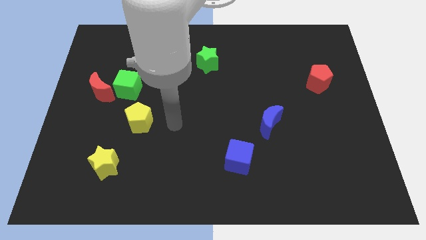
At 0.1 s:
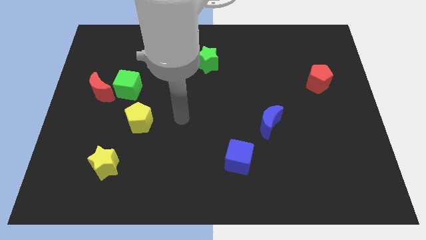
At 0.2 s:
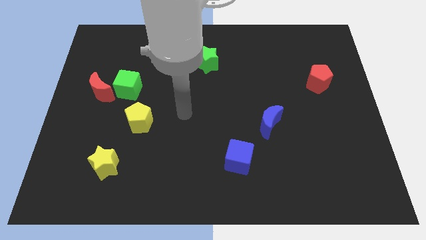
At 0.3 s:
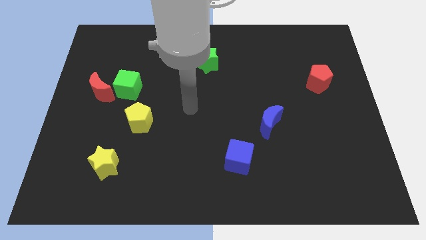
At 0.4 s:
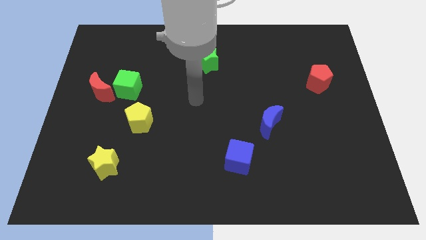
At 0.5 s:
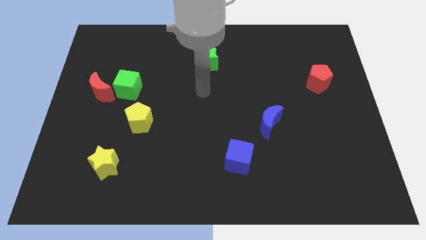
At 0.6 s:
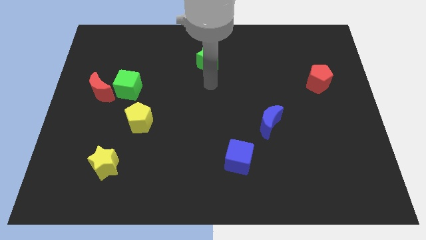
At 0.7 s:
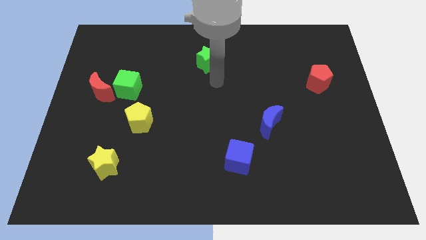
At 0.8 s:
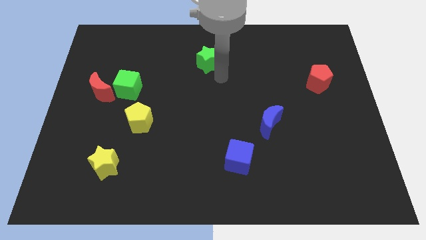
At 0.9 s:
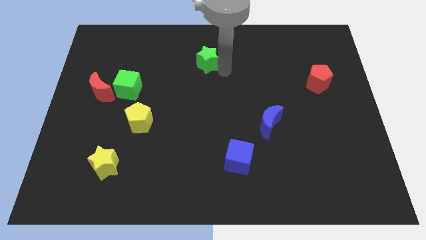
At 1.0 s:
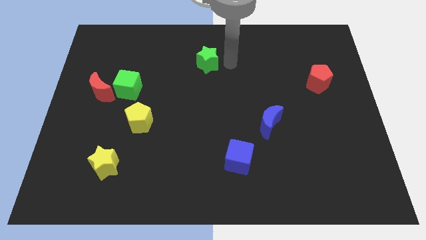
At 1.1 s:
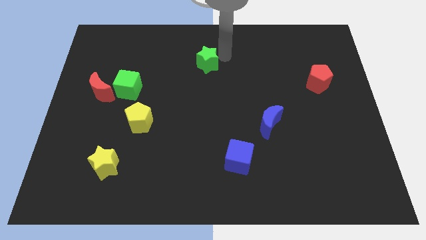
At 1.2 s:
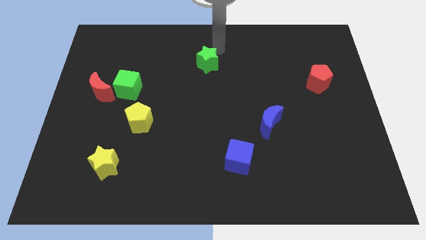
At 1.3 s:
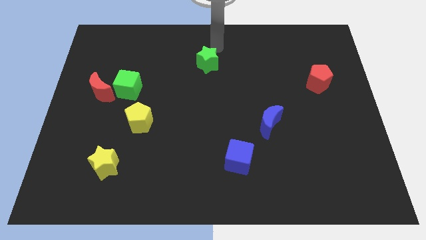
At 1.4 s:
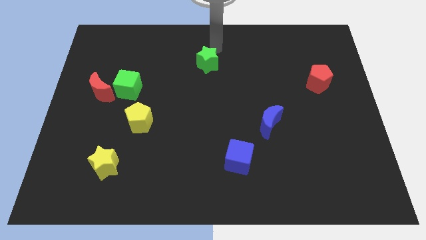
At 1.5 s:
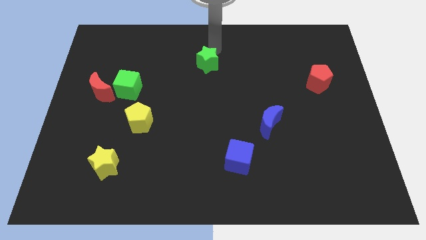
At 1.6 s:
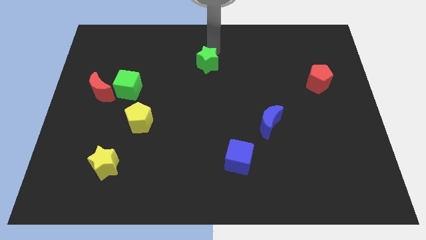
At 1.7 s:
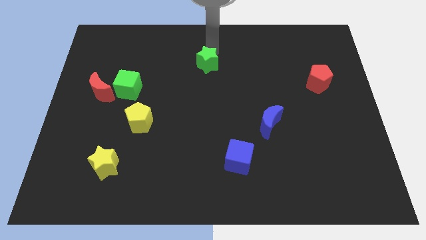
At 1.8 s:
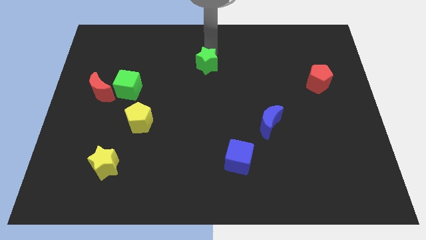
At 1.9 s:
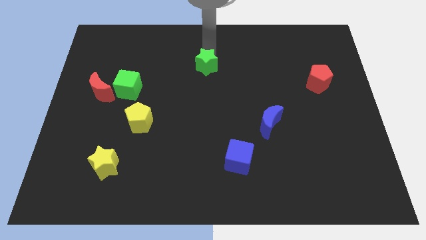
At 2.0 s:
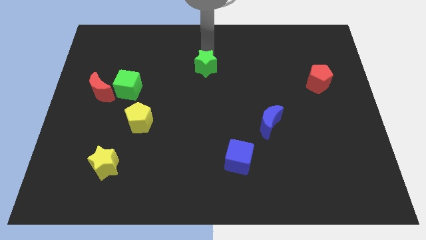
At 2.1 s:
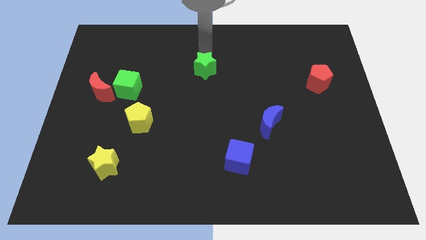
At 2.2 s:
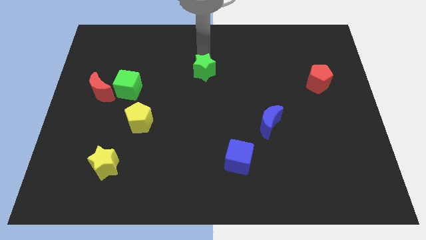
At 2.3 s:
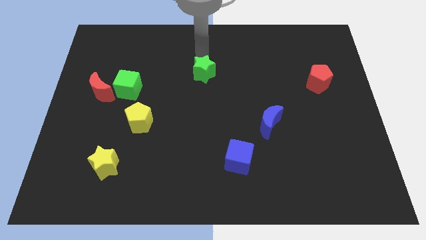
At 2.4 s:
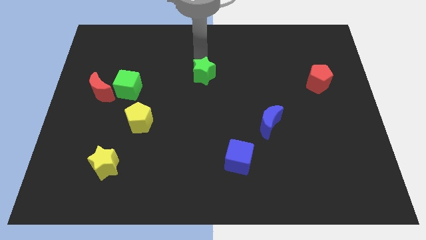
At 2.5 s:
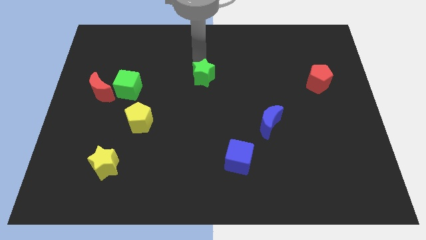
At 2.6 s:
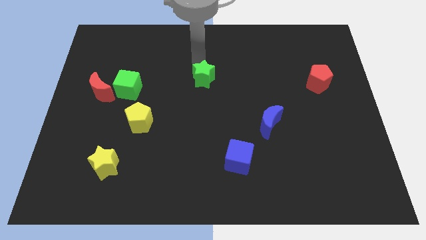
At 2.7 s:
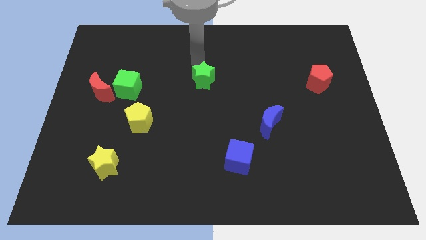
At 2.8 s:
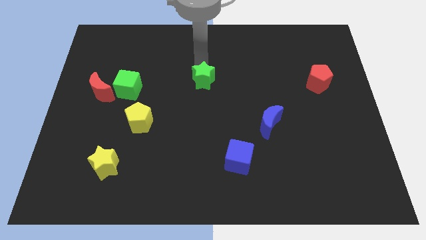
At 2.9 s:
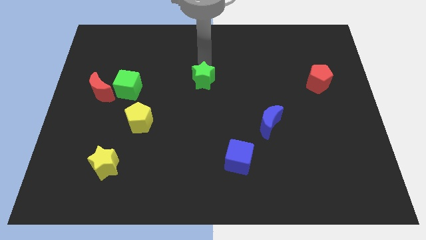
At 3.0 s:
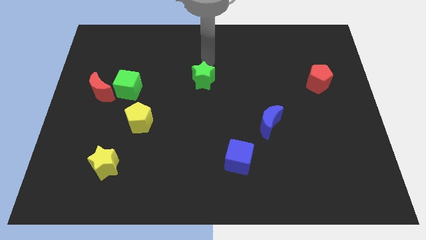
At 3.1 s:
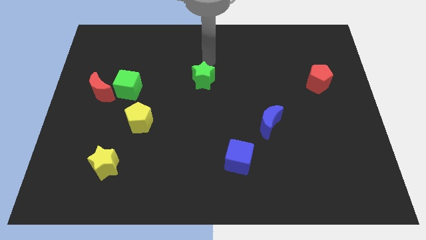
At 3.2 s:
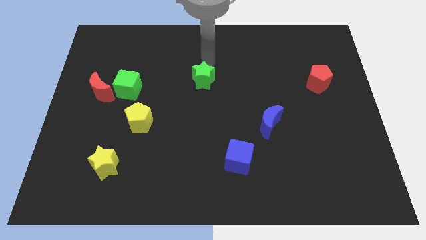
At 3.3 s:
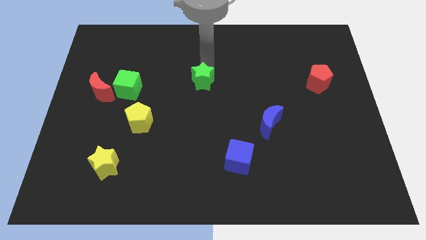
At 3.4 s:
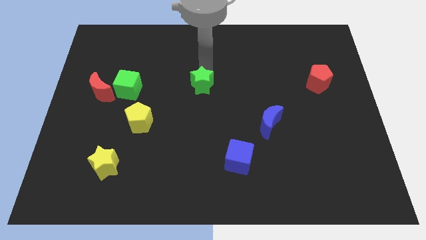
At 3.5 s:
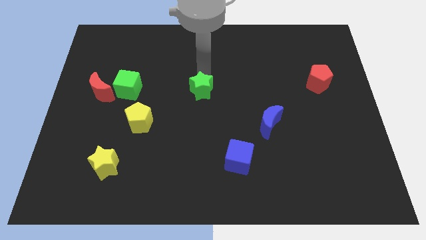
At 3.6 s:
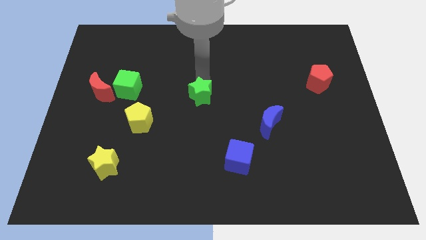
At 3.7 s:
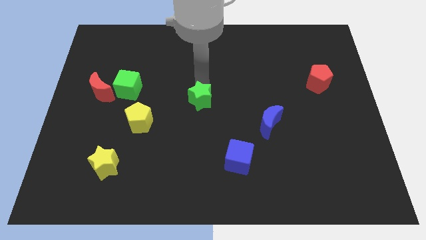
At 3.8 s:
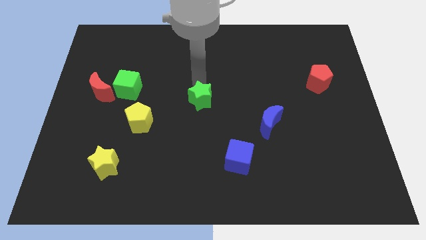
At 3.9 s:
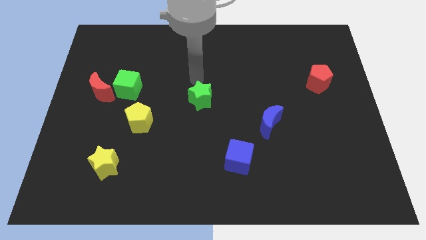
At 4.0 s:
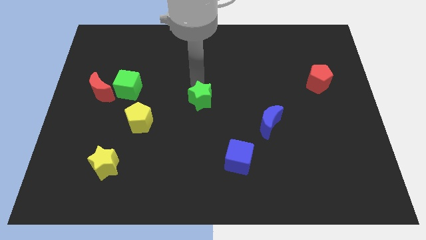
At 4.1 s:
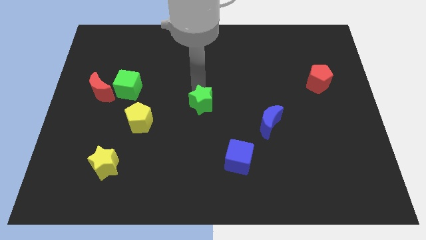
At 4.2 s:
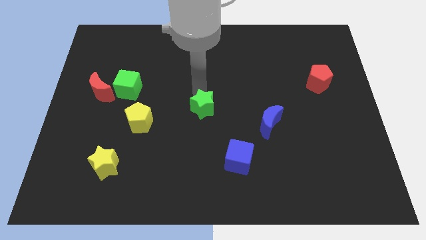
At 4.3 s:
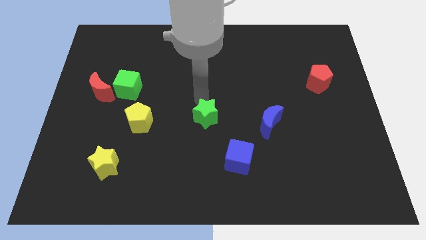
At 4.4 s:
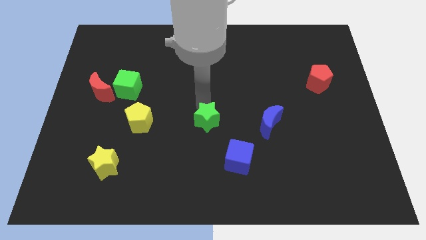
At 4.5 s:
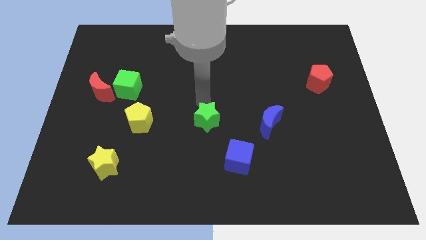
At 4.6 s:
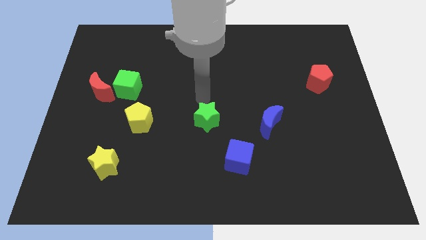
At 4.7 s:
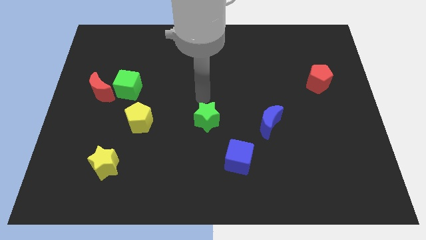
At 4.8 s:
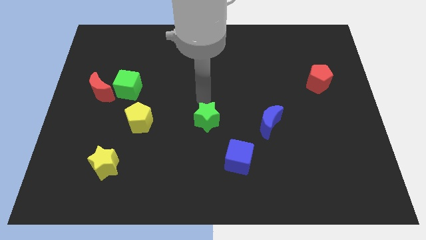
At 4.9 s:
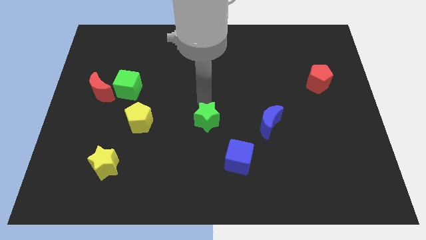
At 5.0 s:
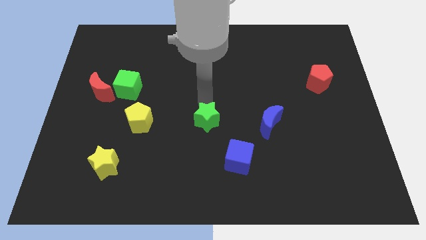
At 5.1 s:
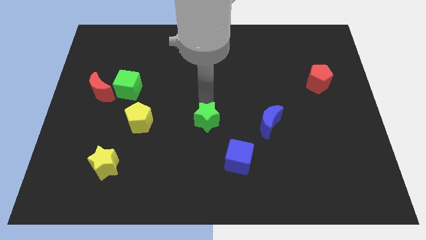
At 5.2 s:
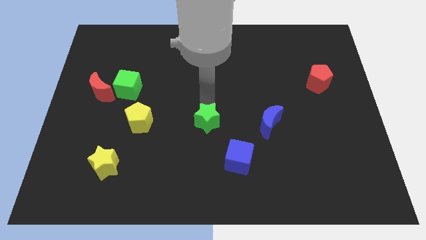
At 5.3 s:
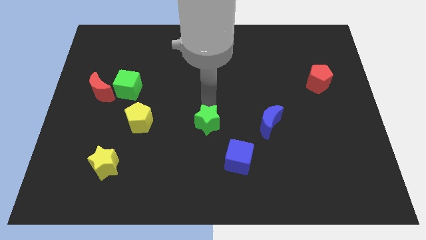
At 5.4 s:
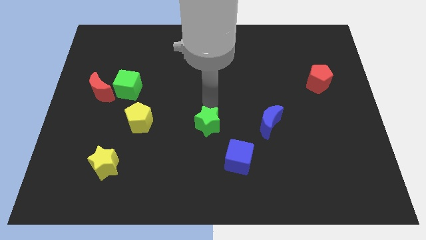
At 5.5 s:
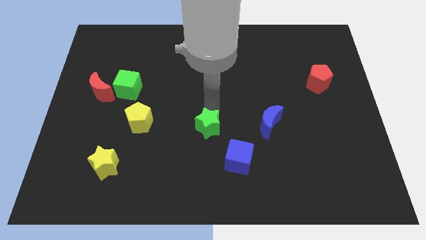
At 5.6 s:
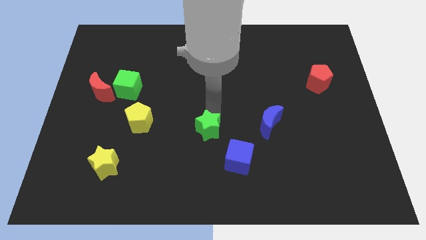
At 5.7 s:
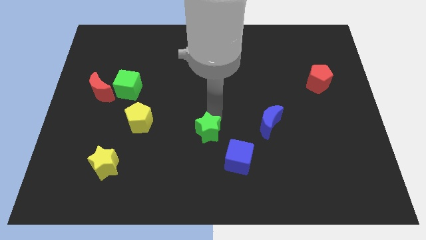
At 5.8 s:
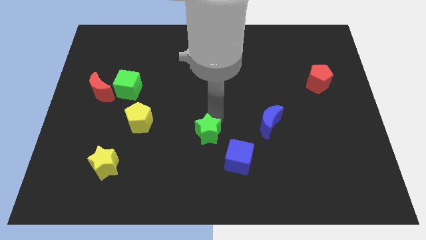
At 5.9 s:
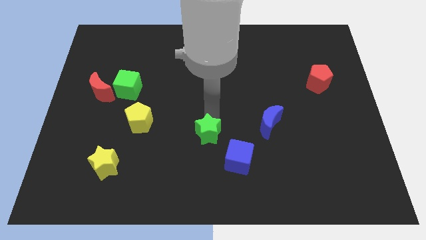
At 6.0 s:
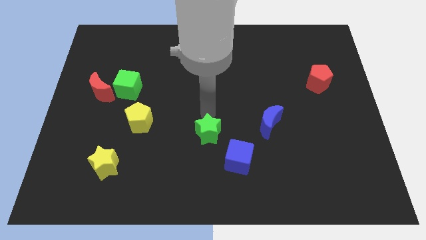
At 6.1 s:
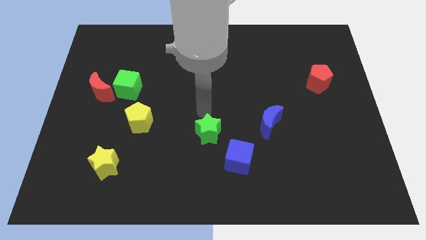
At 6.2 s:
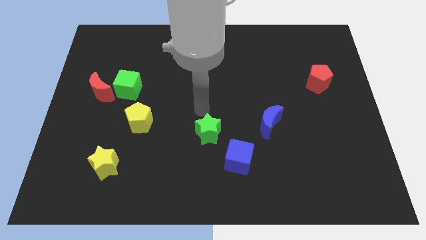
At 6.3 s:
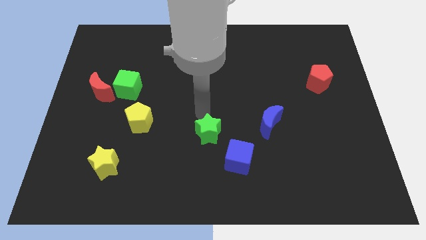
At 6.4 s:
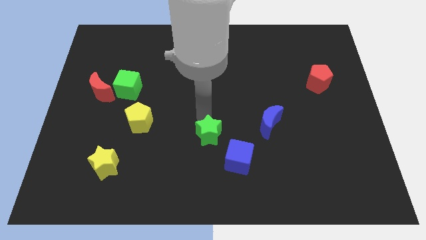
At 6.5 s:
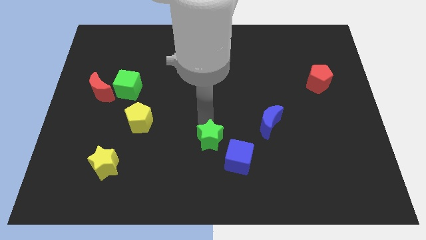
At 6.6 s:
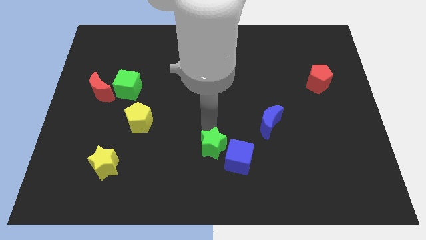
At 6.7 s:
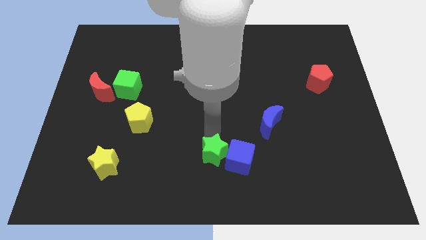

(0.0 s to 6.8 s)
slide the green star to the bottom

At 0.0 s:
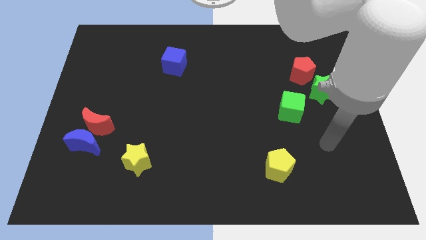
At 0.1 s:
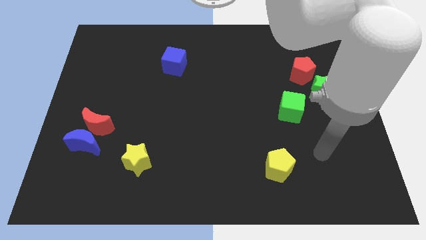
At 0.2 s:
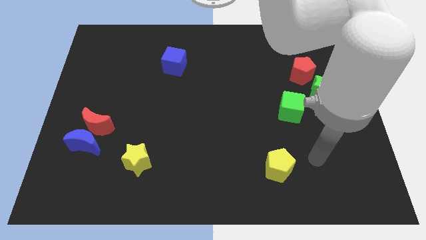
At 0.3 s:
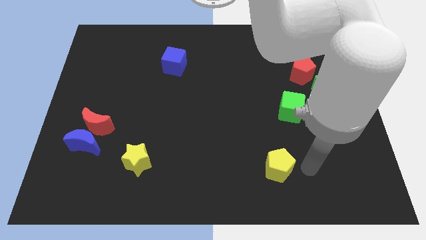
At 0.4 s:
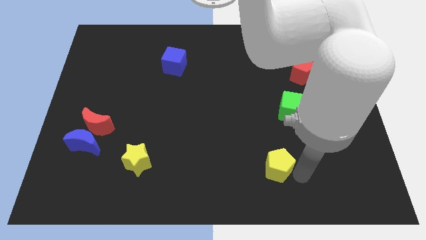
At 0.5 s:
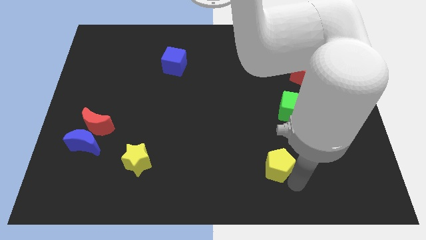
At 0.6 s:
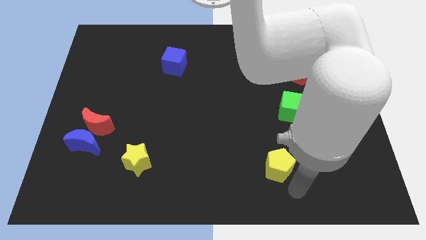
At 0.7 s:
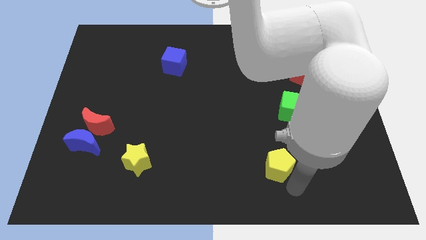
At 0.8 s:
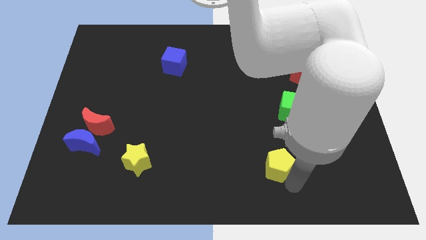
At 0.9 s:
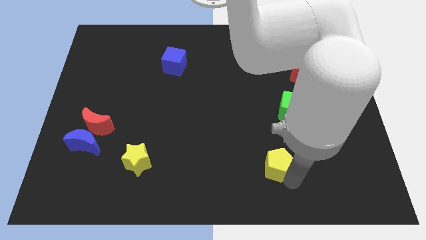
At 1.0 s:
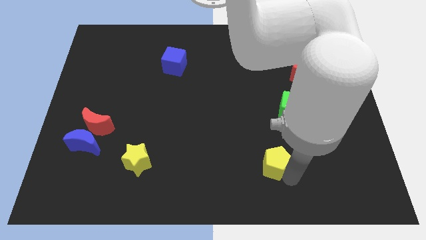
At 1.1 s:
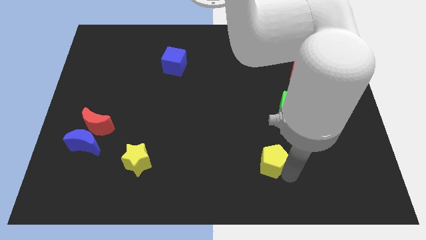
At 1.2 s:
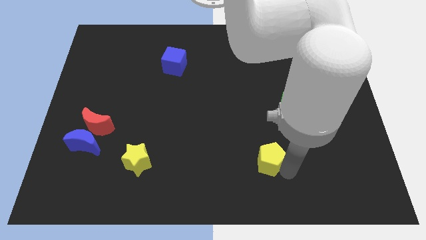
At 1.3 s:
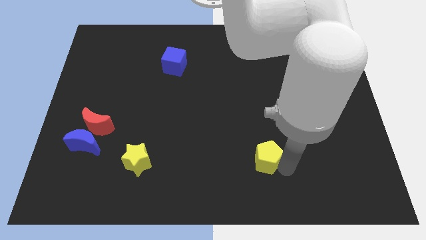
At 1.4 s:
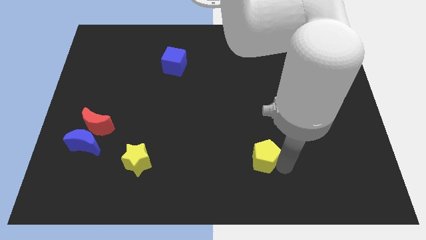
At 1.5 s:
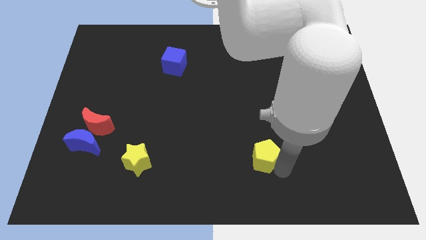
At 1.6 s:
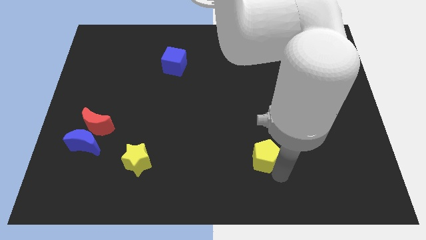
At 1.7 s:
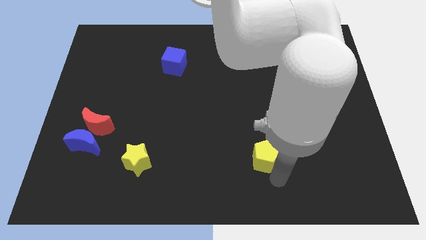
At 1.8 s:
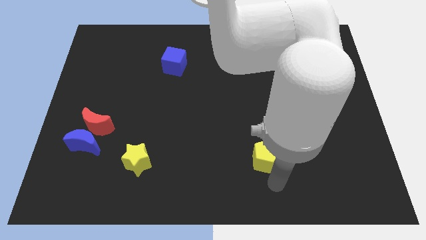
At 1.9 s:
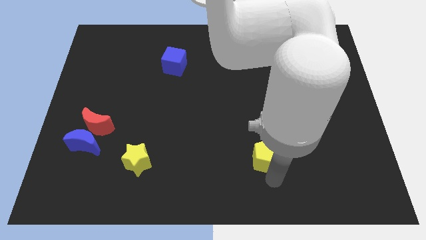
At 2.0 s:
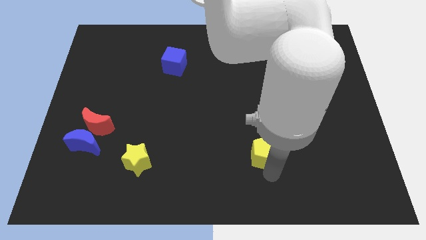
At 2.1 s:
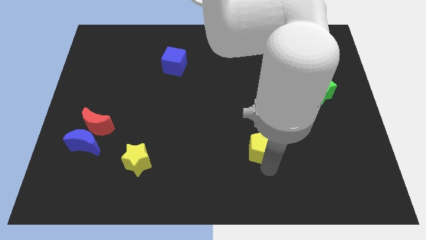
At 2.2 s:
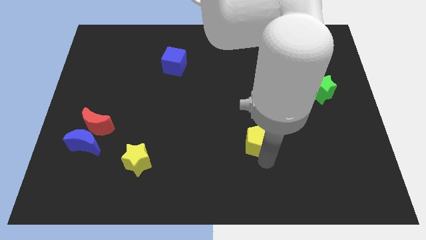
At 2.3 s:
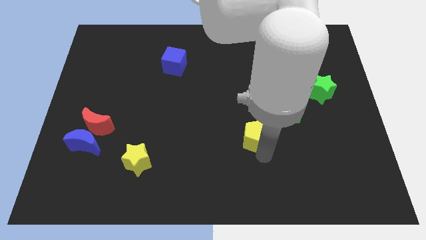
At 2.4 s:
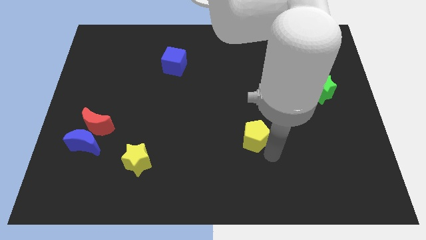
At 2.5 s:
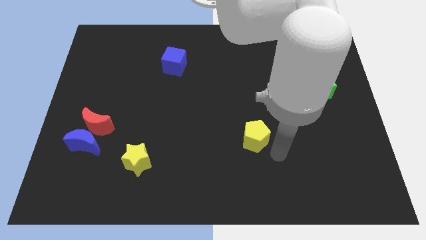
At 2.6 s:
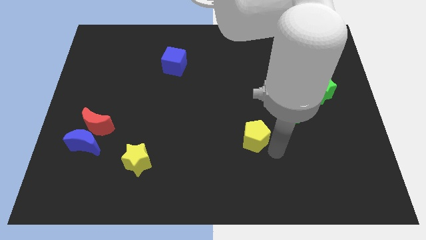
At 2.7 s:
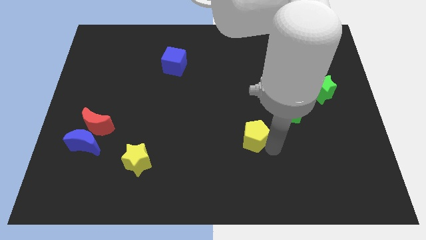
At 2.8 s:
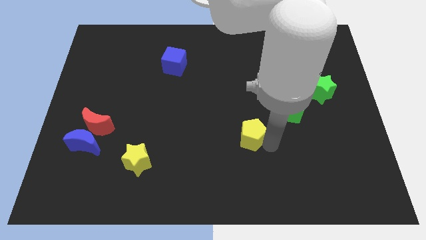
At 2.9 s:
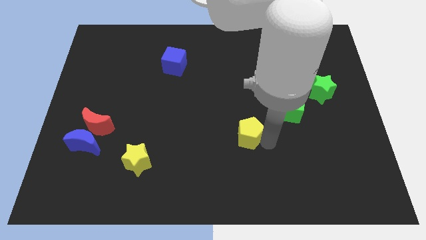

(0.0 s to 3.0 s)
push the yellow pentagon to the center of the board
